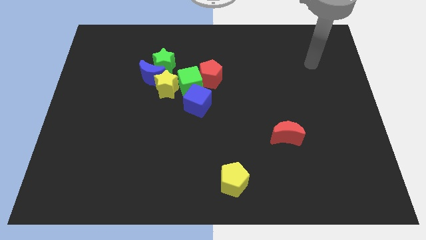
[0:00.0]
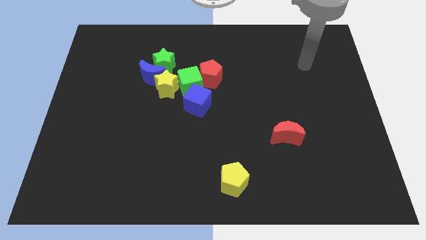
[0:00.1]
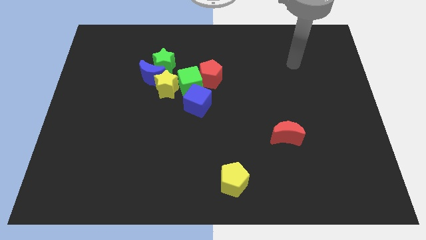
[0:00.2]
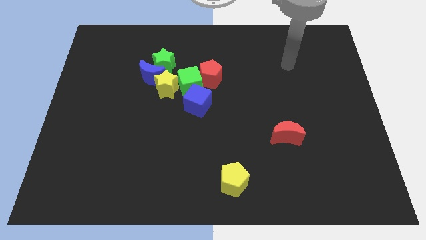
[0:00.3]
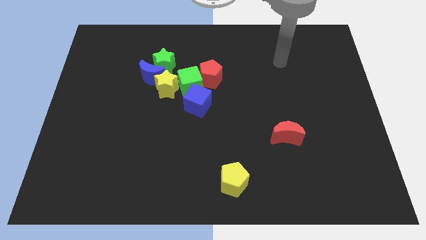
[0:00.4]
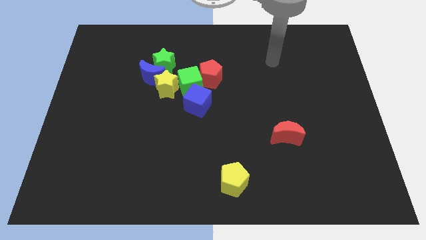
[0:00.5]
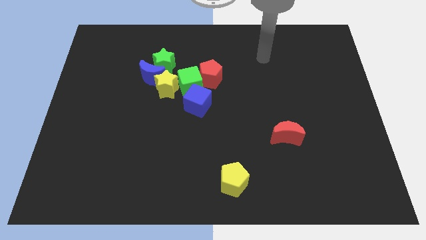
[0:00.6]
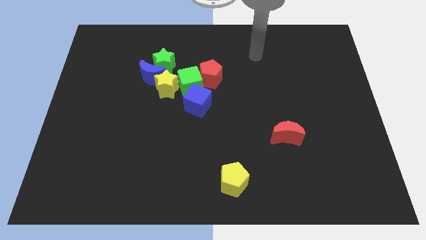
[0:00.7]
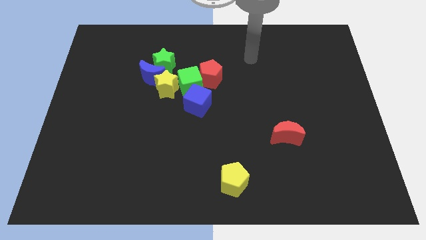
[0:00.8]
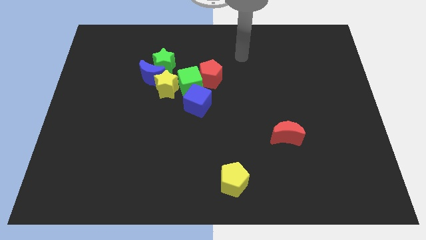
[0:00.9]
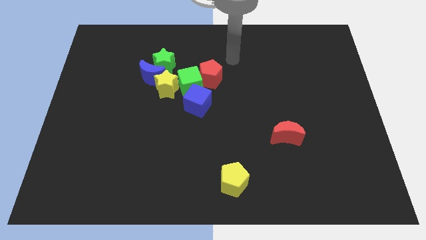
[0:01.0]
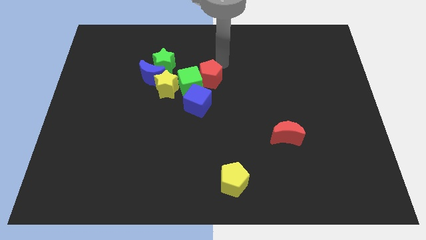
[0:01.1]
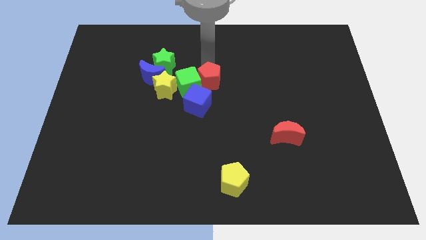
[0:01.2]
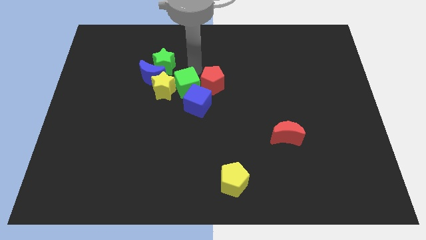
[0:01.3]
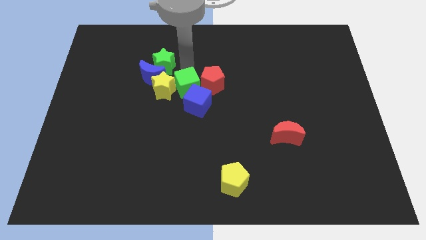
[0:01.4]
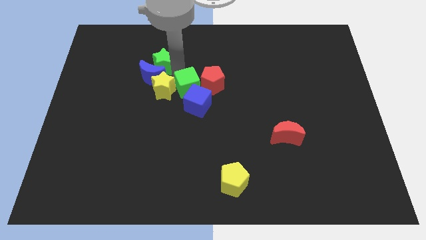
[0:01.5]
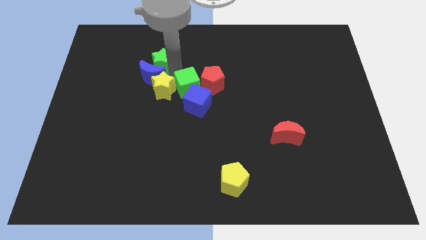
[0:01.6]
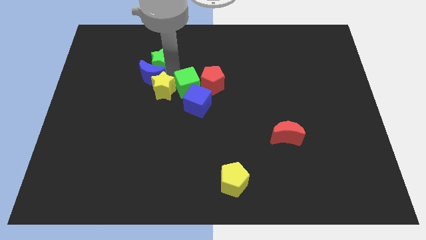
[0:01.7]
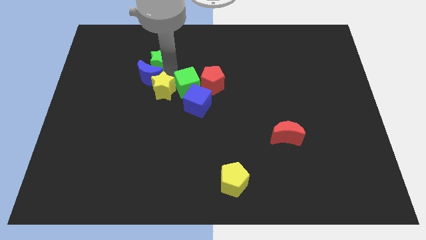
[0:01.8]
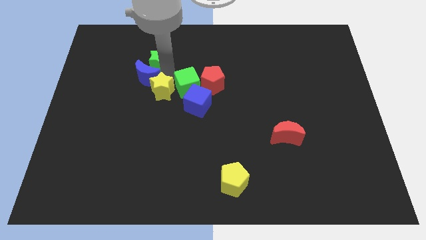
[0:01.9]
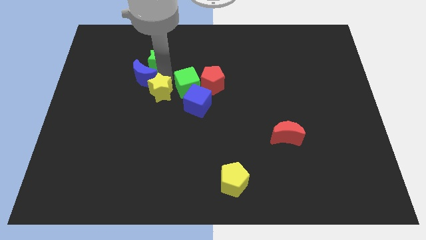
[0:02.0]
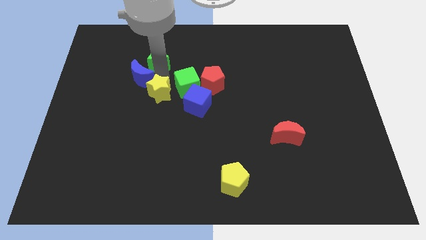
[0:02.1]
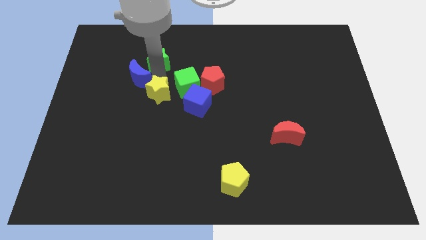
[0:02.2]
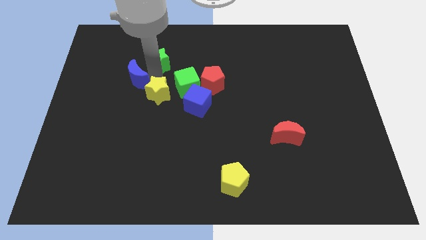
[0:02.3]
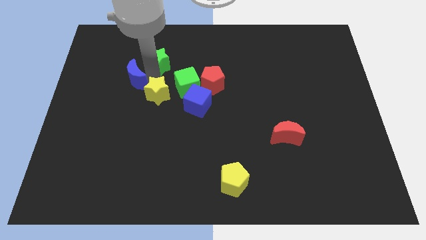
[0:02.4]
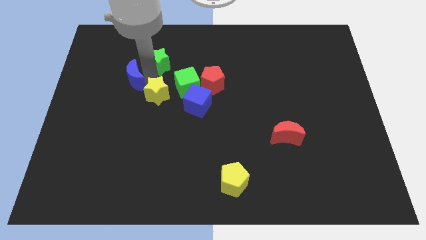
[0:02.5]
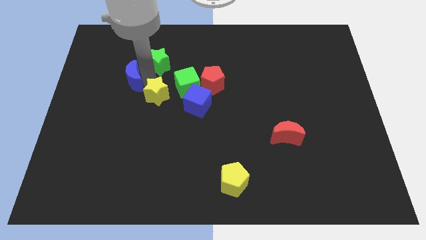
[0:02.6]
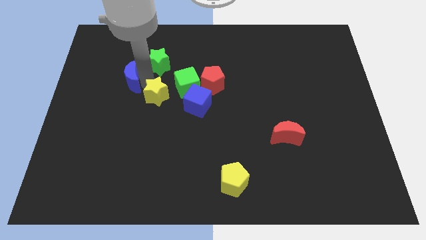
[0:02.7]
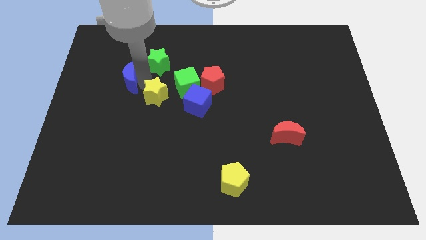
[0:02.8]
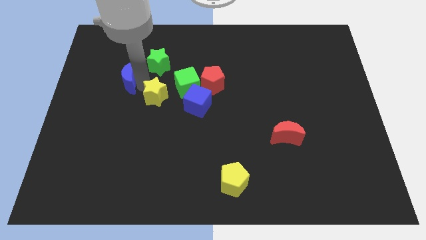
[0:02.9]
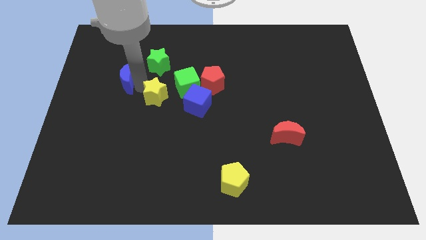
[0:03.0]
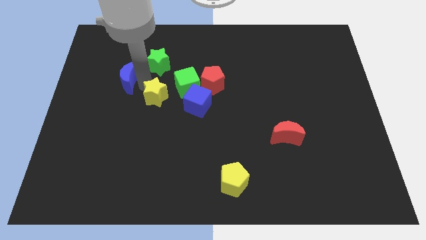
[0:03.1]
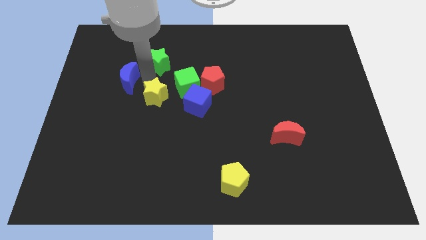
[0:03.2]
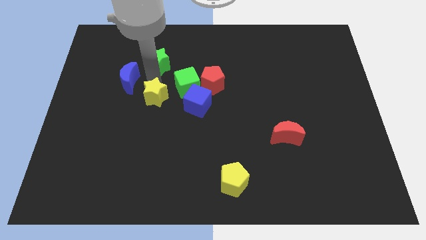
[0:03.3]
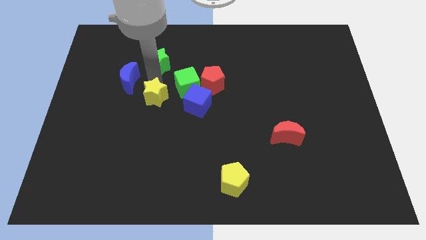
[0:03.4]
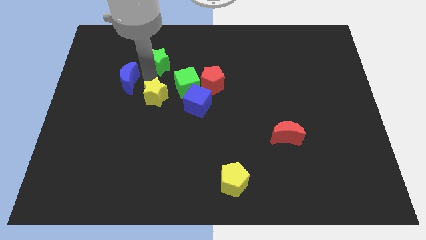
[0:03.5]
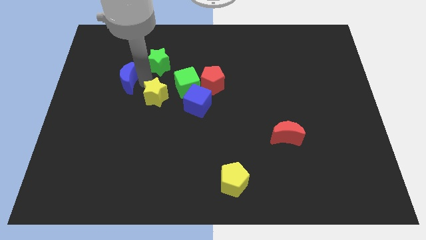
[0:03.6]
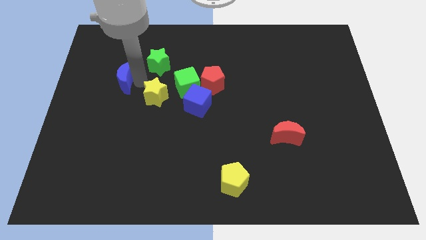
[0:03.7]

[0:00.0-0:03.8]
move the blue moon away from the green star, yellow star, and green cube

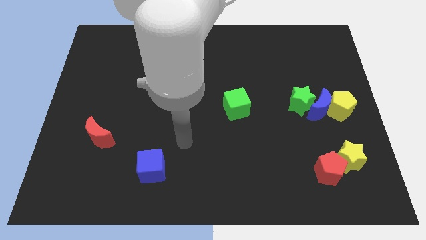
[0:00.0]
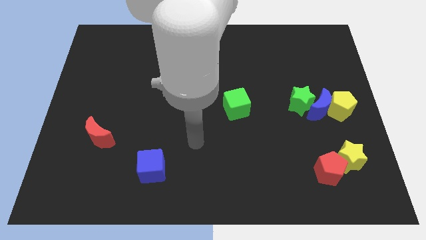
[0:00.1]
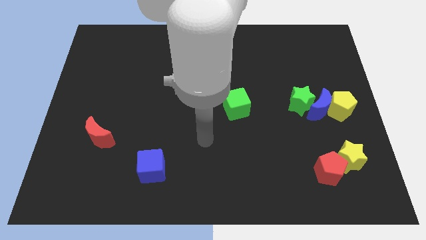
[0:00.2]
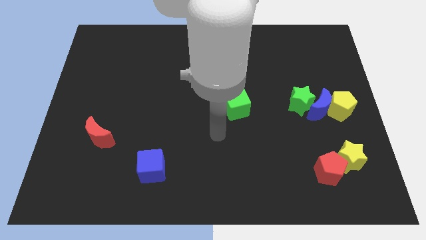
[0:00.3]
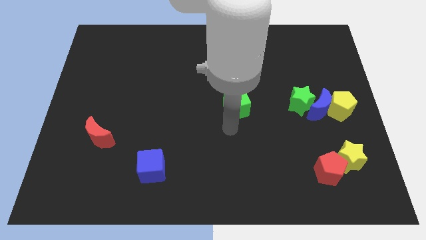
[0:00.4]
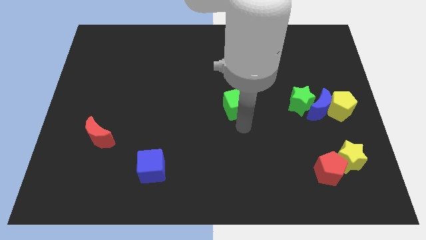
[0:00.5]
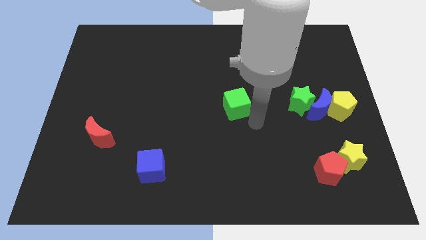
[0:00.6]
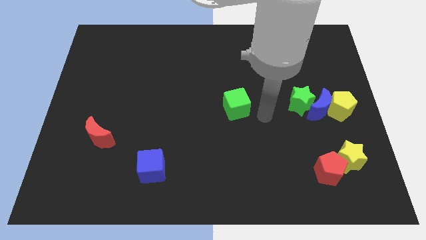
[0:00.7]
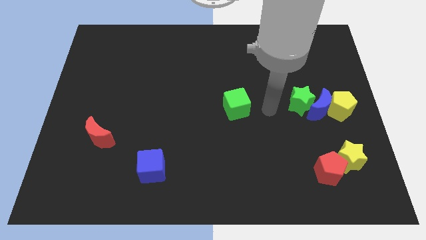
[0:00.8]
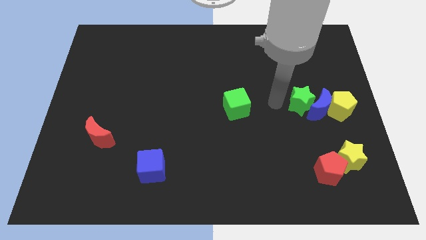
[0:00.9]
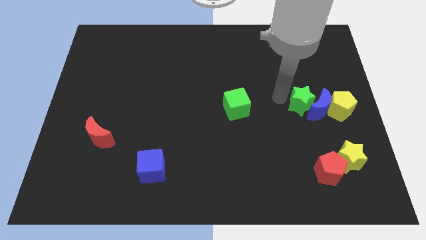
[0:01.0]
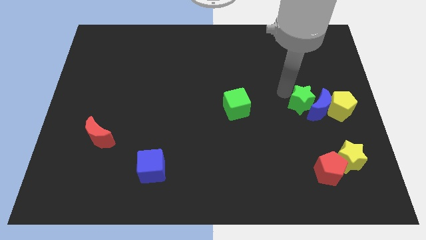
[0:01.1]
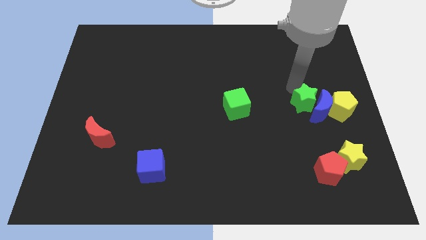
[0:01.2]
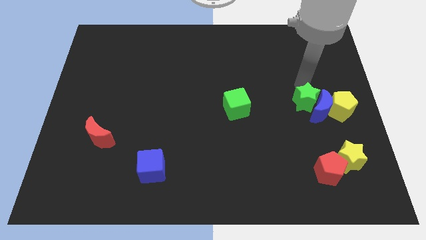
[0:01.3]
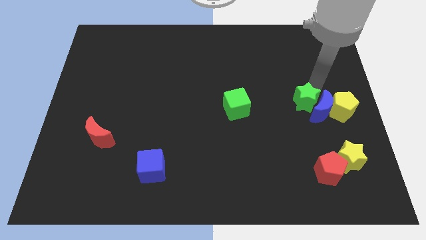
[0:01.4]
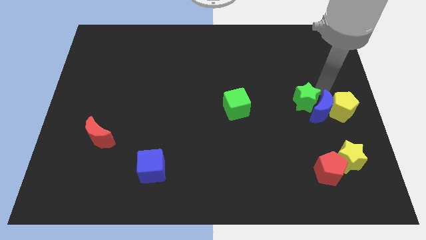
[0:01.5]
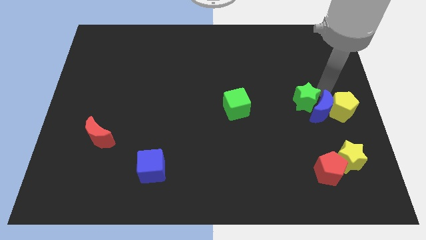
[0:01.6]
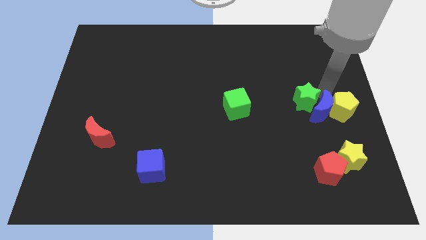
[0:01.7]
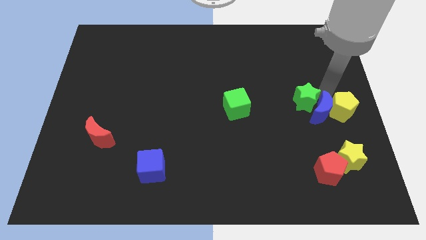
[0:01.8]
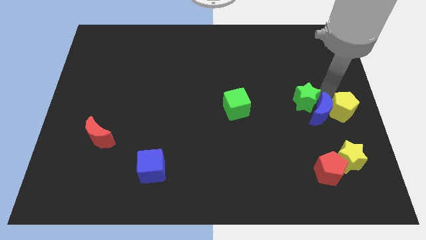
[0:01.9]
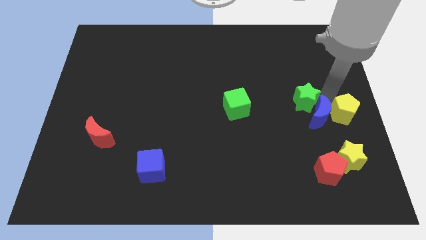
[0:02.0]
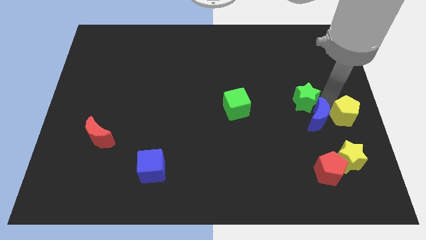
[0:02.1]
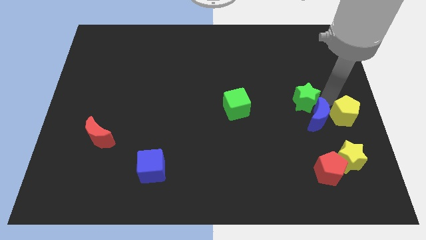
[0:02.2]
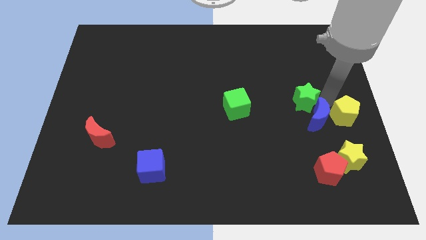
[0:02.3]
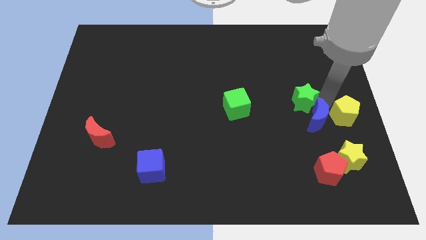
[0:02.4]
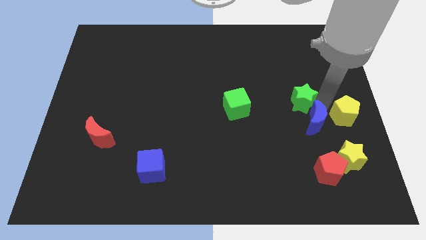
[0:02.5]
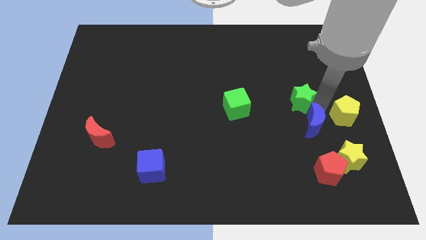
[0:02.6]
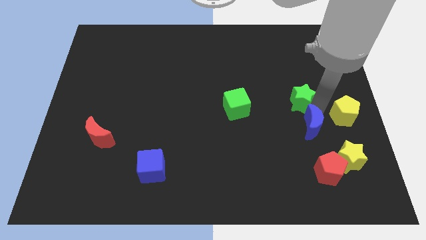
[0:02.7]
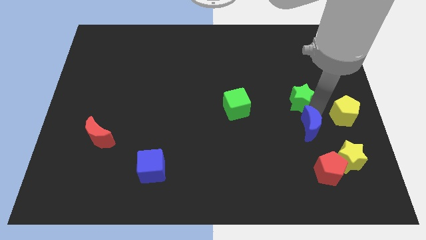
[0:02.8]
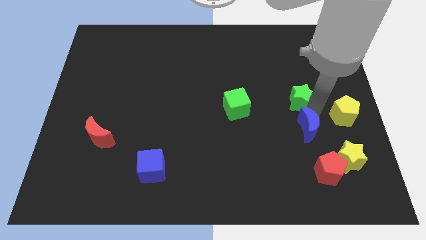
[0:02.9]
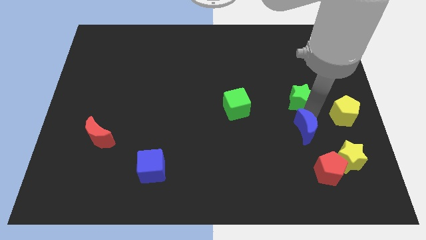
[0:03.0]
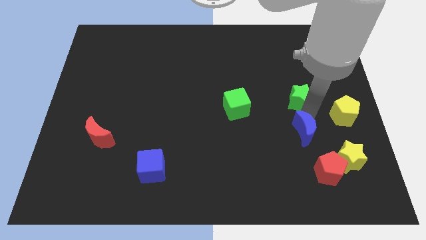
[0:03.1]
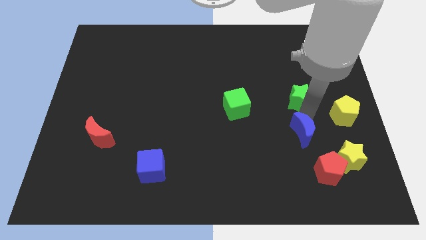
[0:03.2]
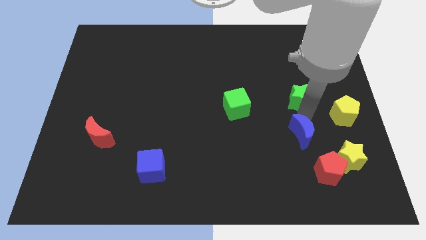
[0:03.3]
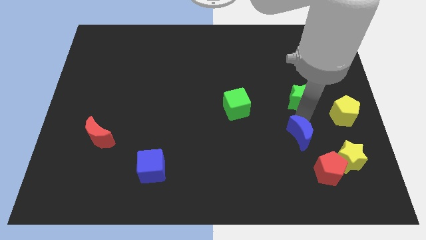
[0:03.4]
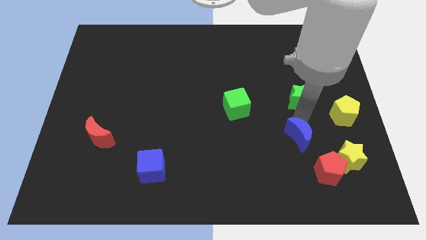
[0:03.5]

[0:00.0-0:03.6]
move the blue moon away from the green star and yellow pentagon

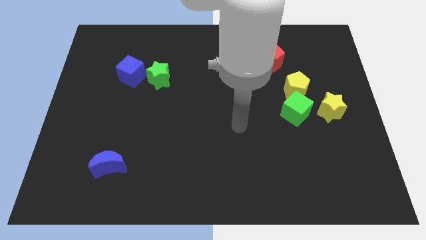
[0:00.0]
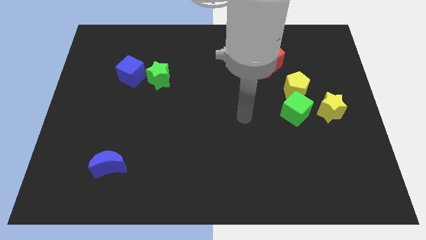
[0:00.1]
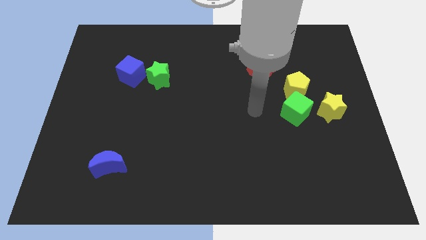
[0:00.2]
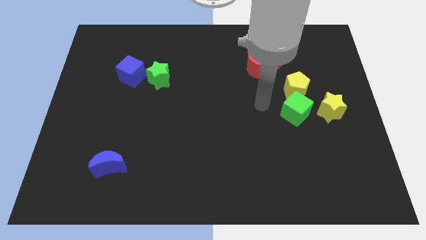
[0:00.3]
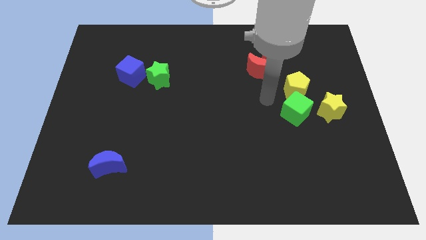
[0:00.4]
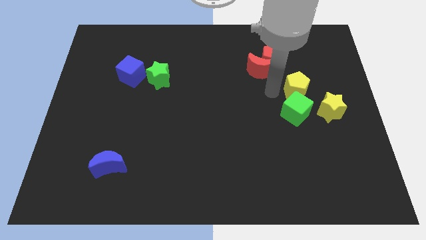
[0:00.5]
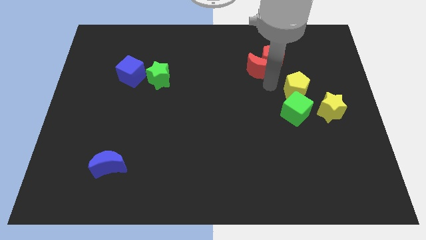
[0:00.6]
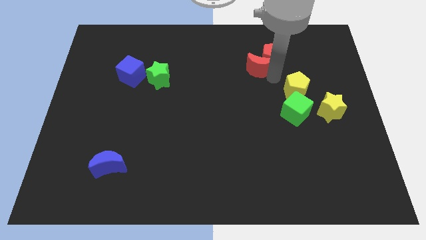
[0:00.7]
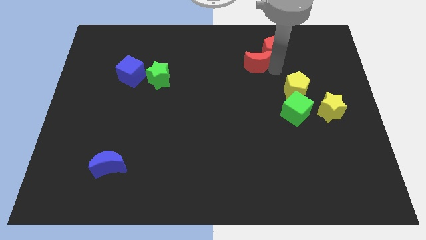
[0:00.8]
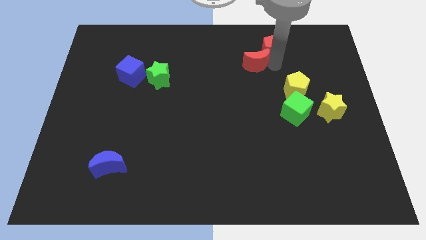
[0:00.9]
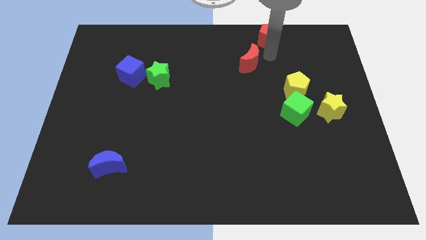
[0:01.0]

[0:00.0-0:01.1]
move the red moon away from the red pentagon

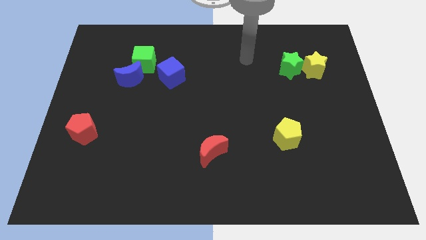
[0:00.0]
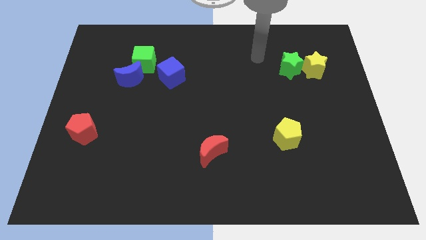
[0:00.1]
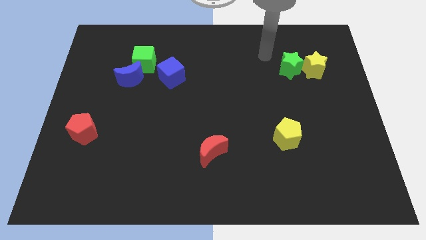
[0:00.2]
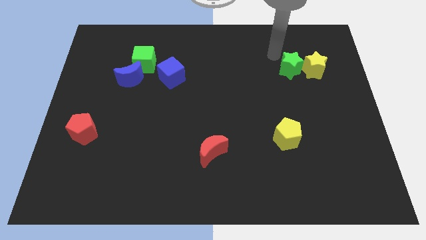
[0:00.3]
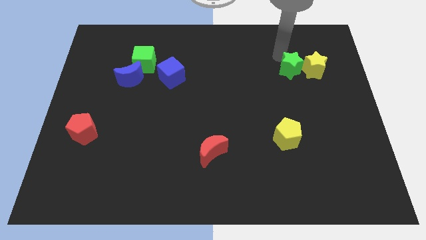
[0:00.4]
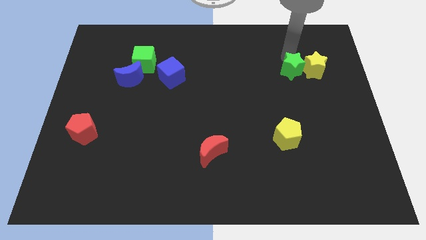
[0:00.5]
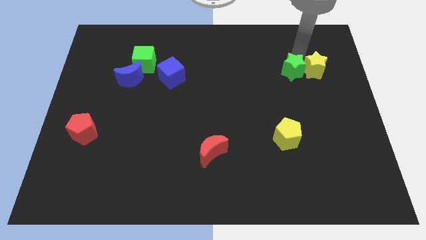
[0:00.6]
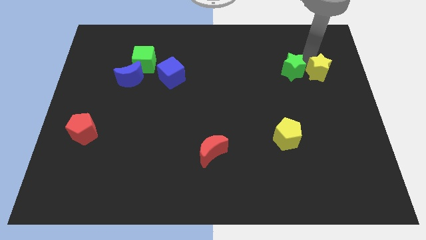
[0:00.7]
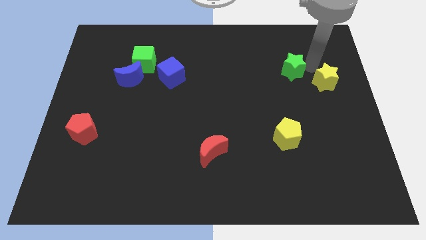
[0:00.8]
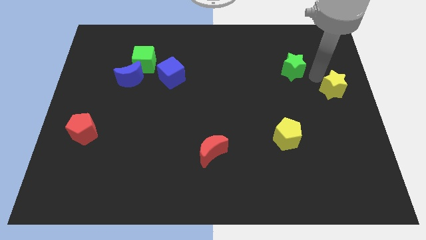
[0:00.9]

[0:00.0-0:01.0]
pull the green star apart from the yellow star
